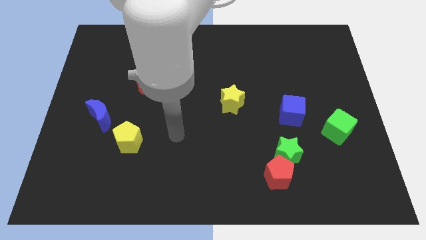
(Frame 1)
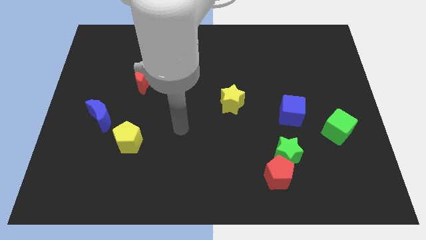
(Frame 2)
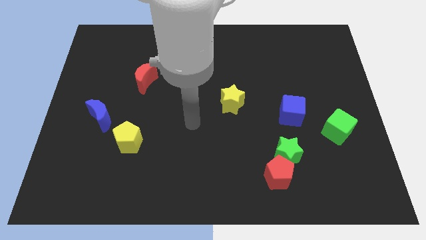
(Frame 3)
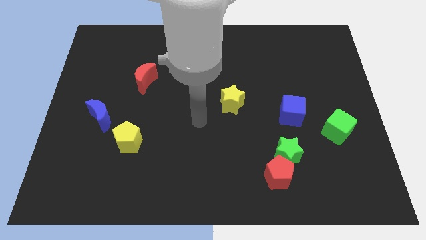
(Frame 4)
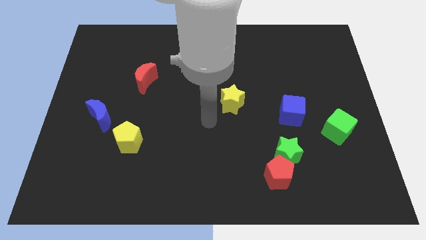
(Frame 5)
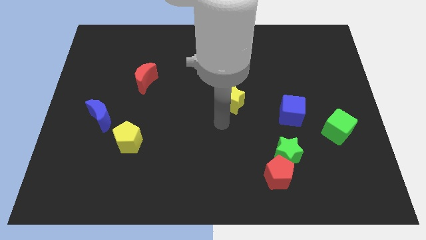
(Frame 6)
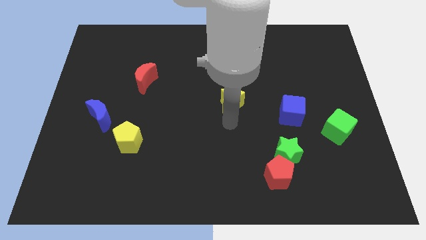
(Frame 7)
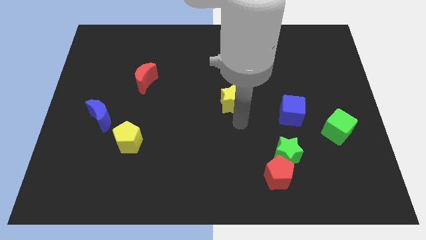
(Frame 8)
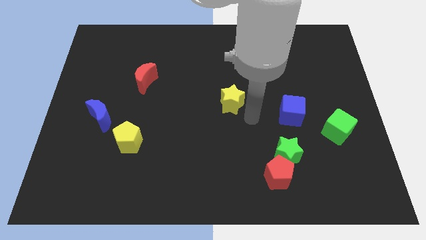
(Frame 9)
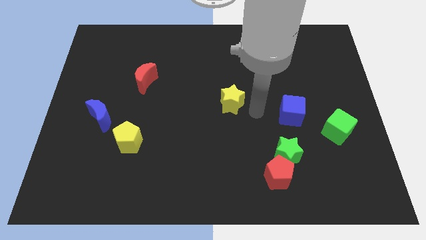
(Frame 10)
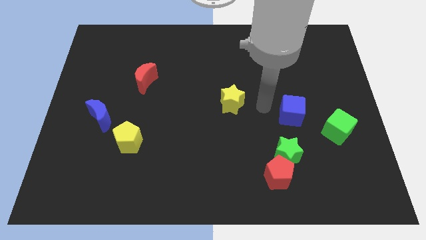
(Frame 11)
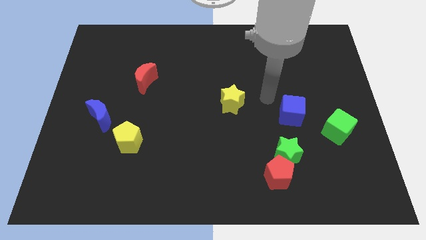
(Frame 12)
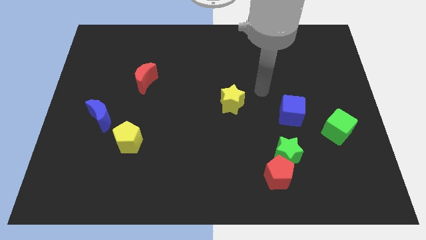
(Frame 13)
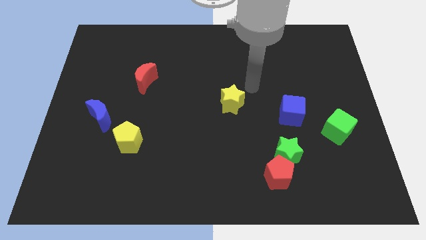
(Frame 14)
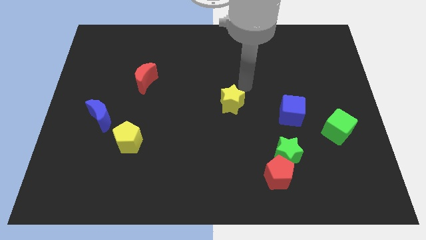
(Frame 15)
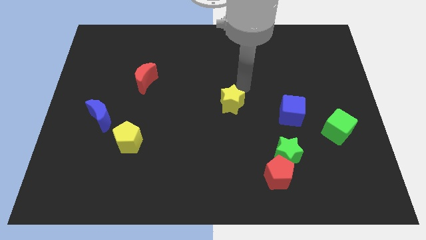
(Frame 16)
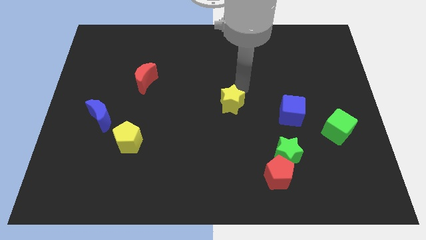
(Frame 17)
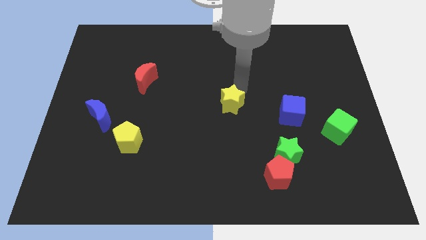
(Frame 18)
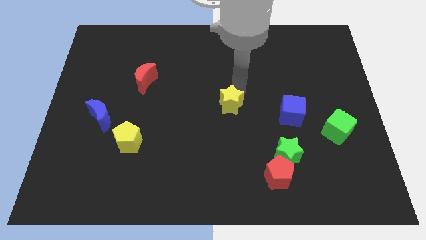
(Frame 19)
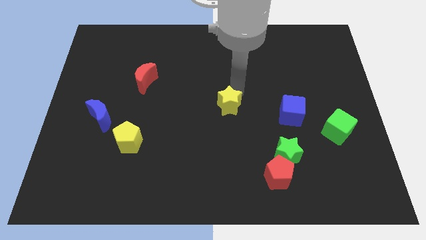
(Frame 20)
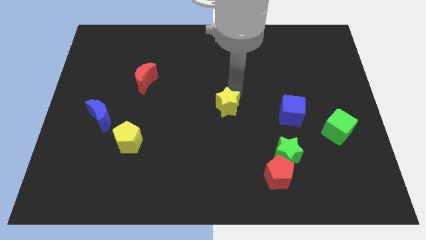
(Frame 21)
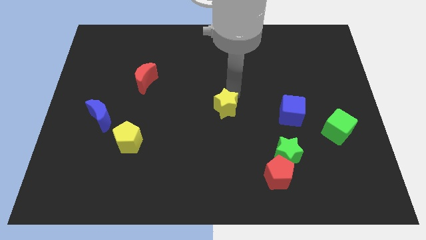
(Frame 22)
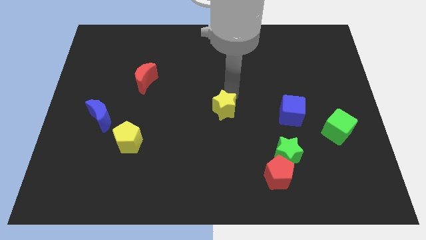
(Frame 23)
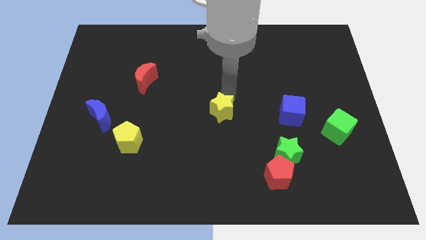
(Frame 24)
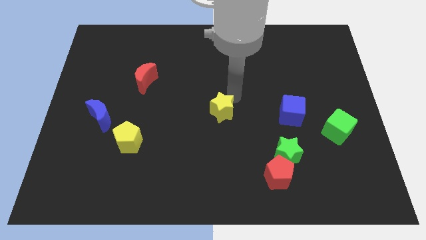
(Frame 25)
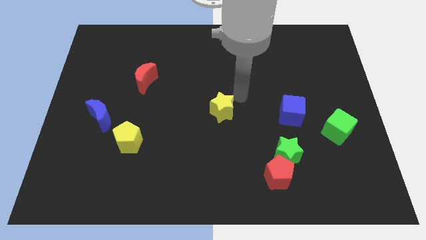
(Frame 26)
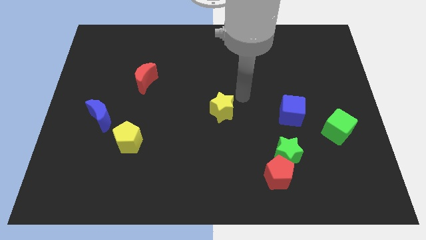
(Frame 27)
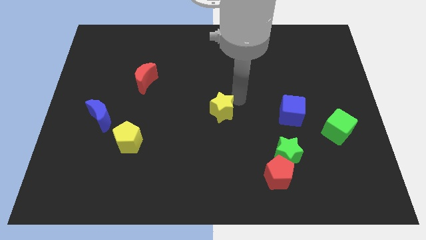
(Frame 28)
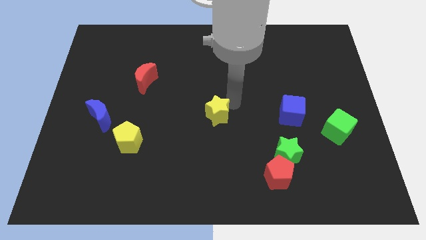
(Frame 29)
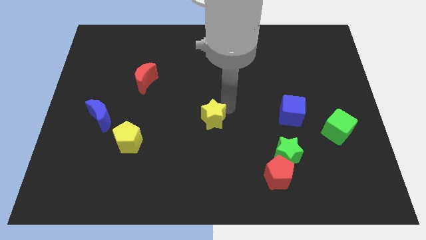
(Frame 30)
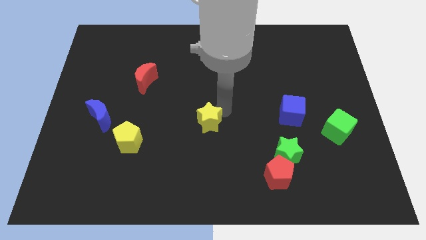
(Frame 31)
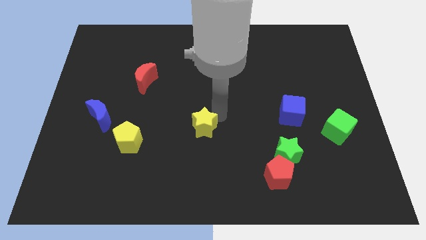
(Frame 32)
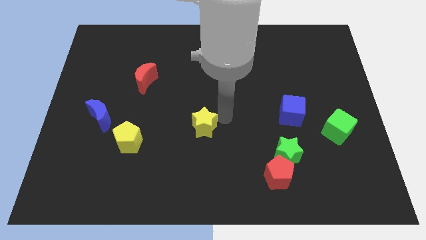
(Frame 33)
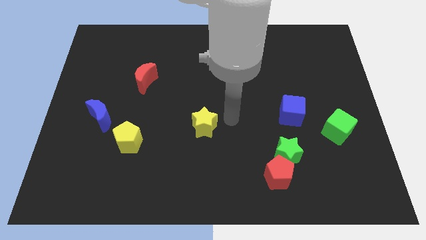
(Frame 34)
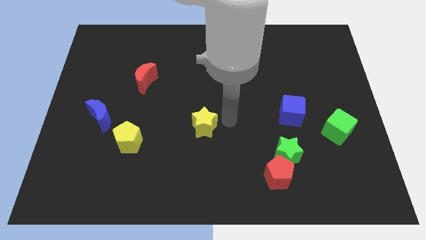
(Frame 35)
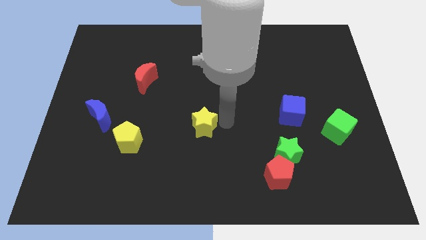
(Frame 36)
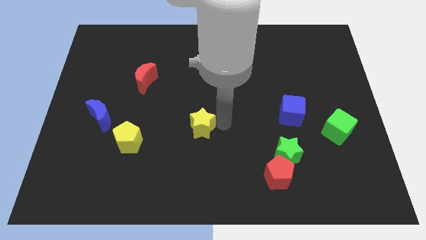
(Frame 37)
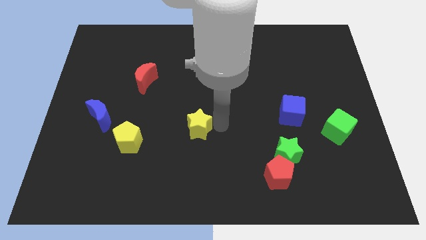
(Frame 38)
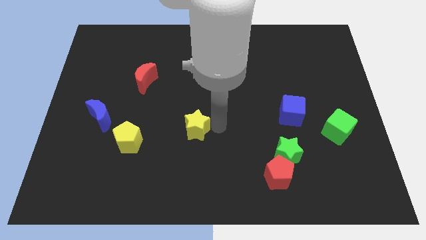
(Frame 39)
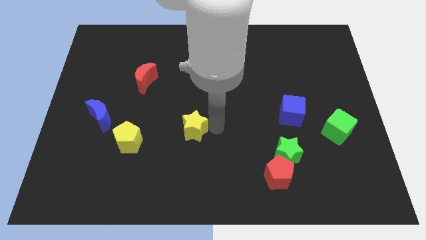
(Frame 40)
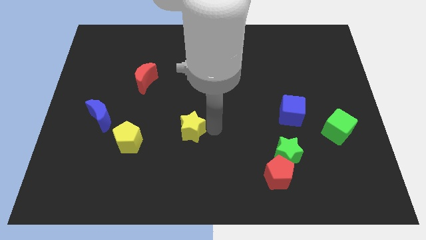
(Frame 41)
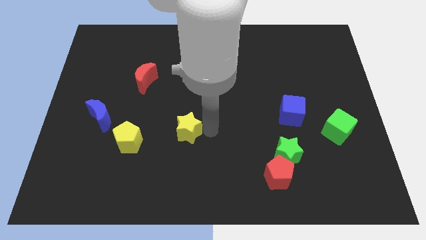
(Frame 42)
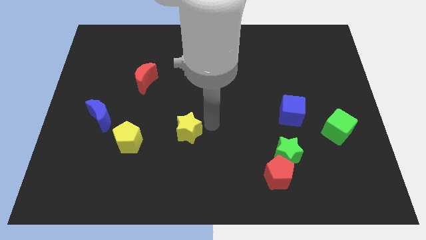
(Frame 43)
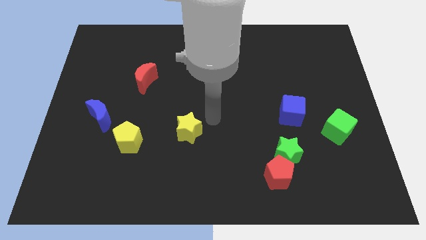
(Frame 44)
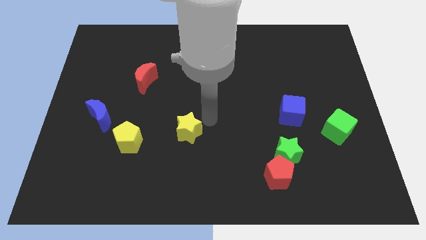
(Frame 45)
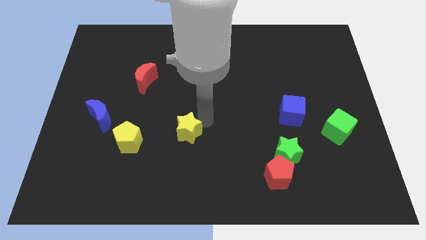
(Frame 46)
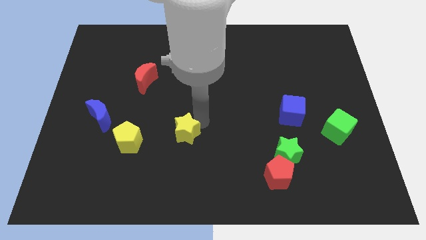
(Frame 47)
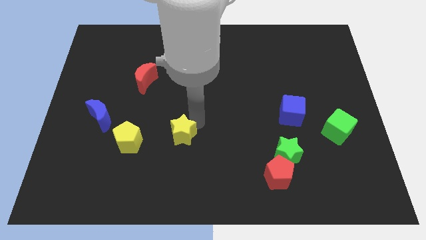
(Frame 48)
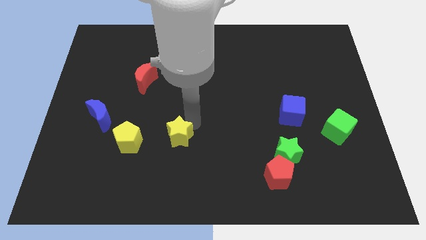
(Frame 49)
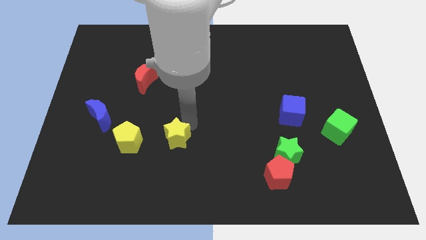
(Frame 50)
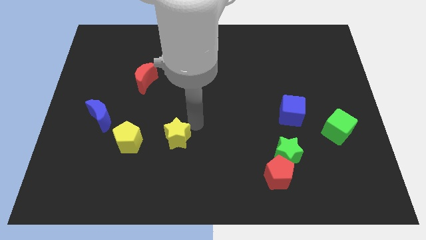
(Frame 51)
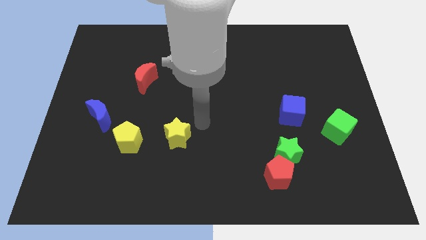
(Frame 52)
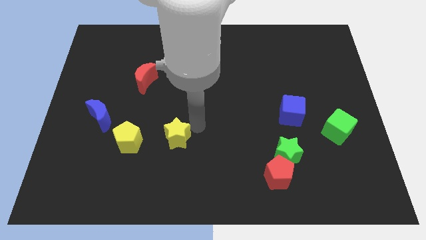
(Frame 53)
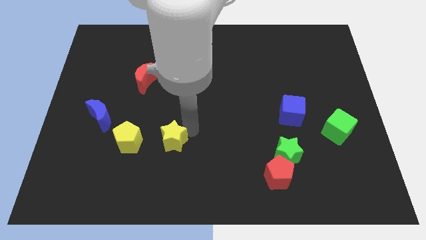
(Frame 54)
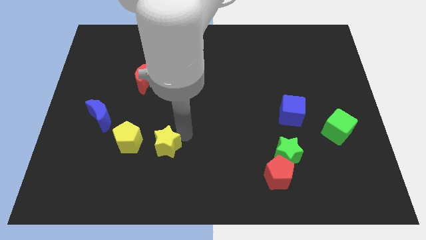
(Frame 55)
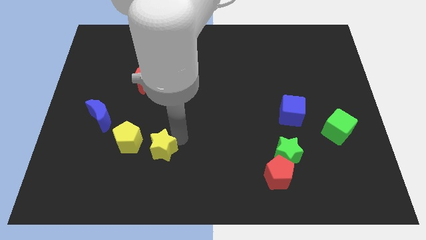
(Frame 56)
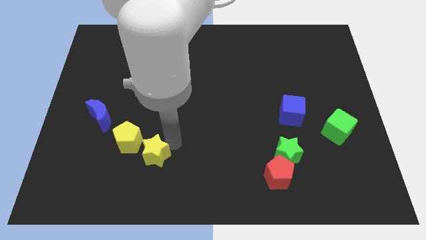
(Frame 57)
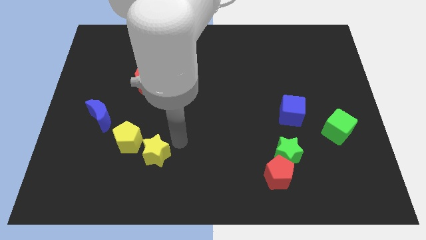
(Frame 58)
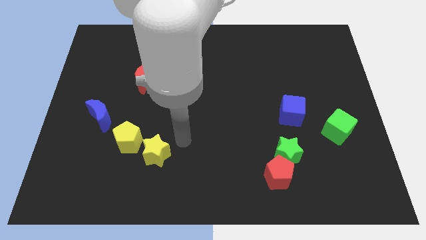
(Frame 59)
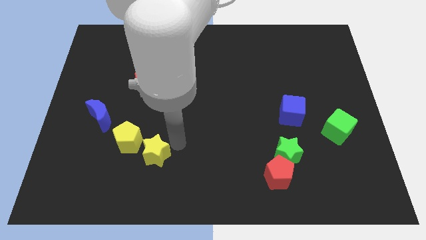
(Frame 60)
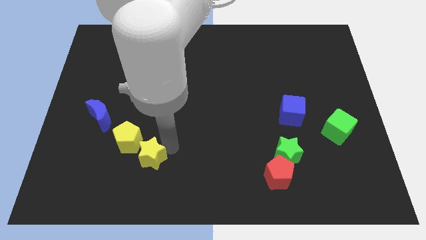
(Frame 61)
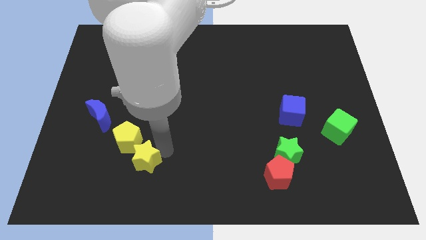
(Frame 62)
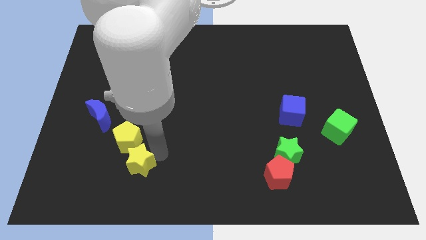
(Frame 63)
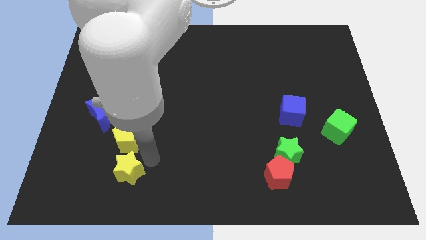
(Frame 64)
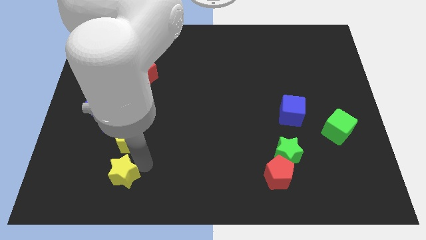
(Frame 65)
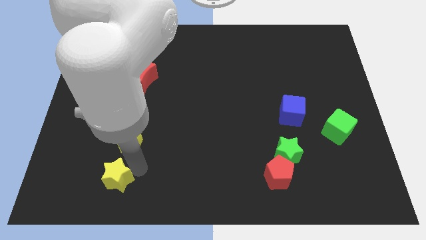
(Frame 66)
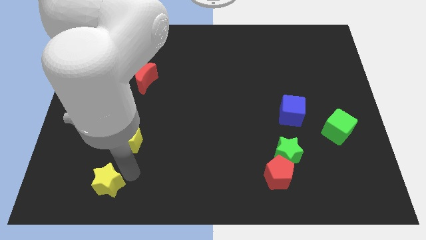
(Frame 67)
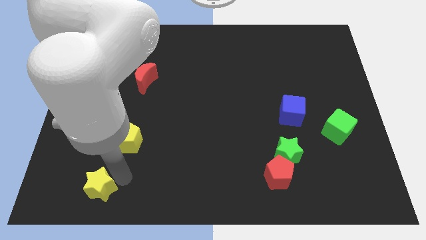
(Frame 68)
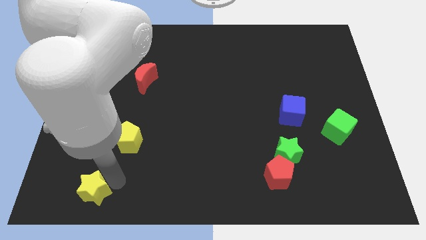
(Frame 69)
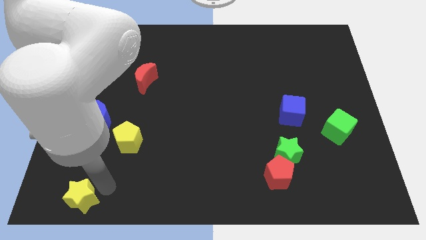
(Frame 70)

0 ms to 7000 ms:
slide the yellow star to the bottom left of the board

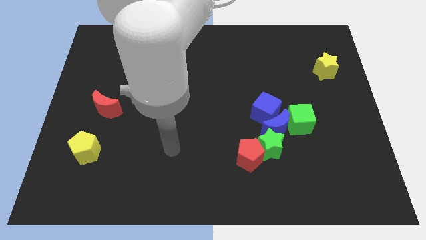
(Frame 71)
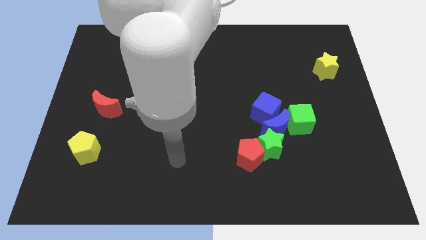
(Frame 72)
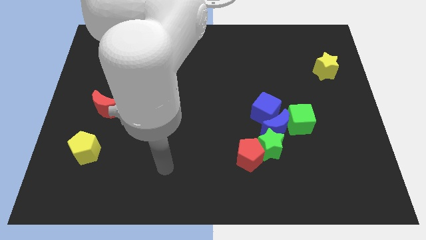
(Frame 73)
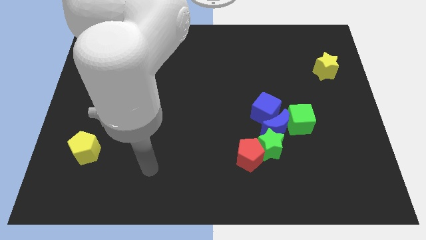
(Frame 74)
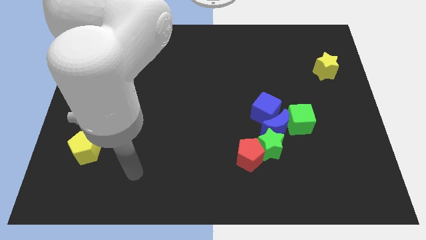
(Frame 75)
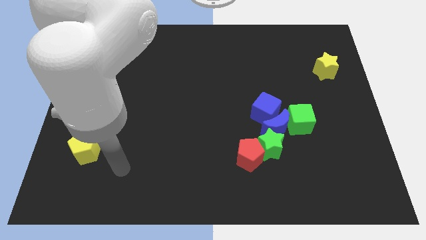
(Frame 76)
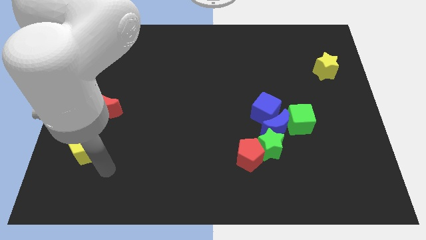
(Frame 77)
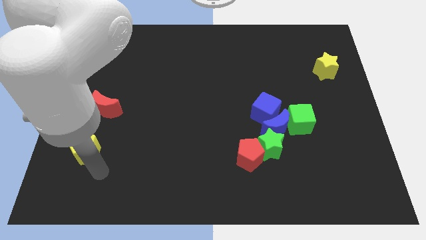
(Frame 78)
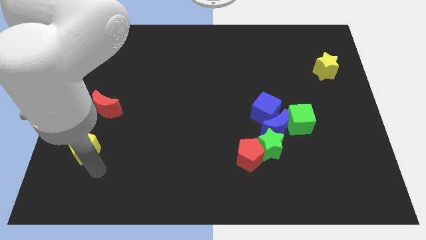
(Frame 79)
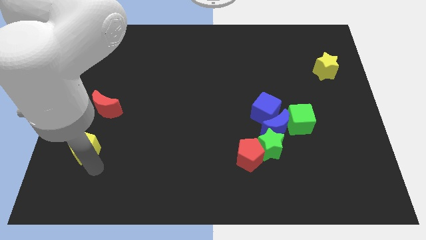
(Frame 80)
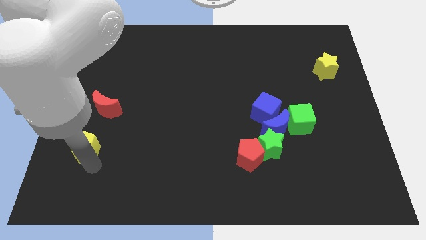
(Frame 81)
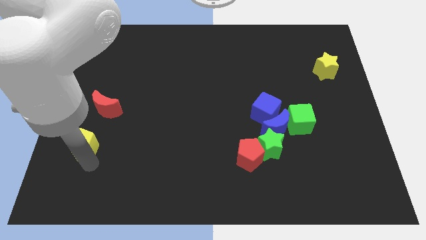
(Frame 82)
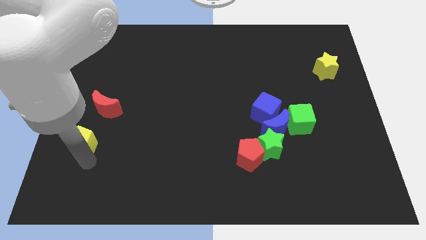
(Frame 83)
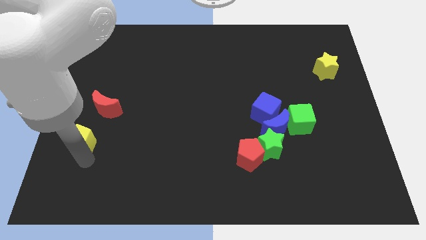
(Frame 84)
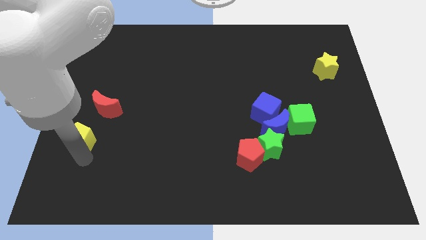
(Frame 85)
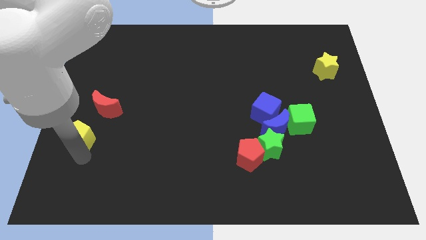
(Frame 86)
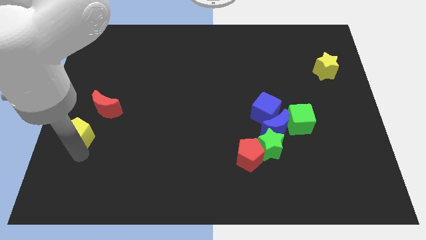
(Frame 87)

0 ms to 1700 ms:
push the yellow pentagon to the center left
